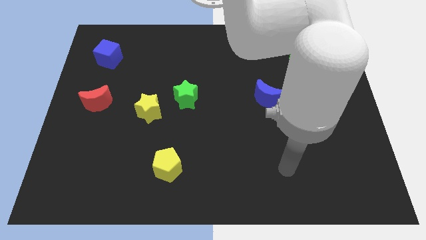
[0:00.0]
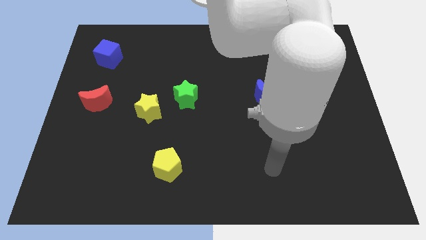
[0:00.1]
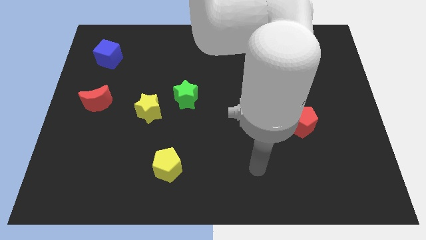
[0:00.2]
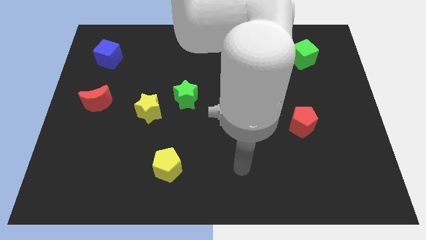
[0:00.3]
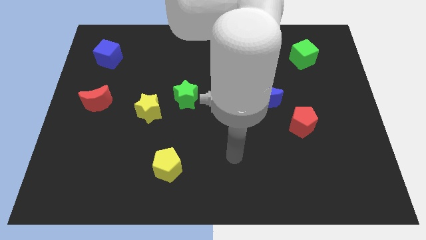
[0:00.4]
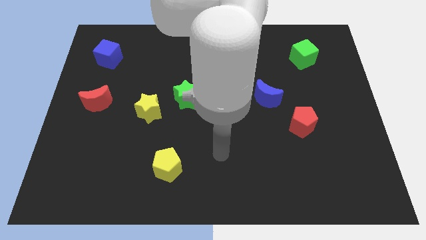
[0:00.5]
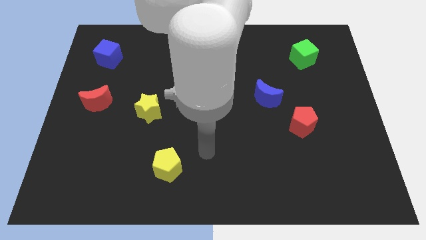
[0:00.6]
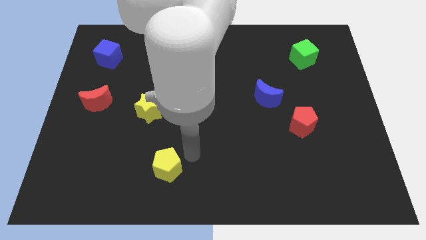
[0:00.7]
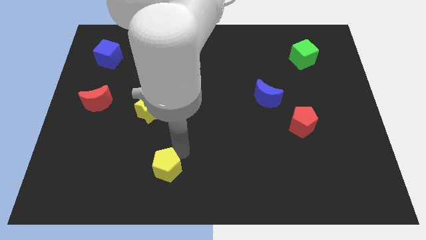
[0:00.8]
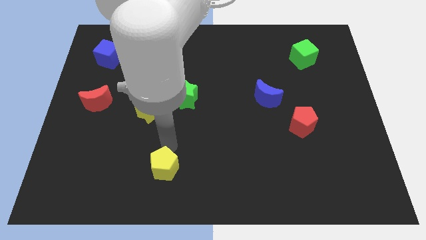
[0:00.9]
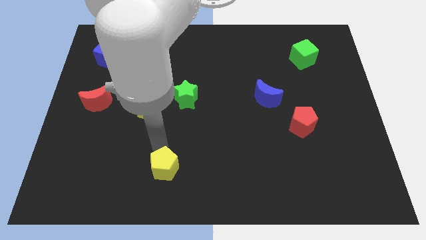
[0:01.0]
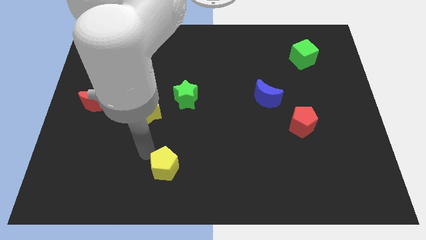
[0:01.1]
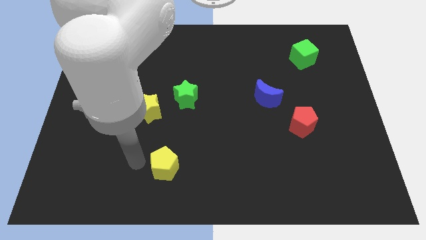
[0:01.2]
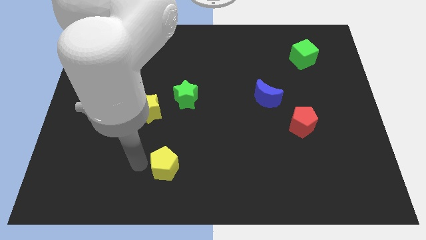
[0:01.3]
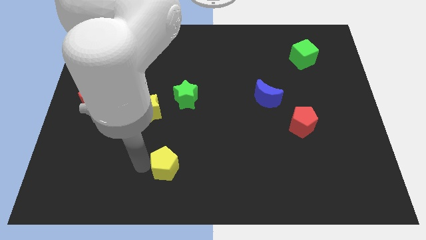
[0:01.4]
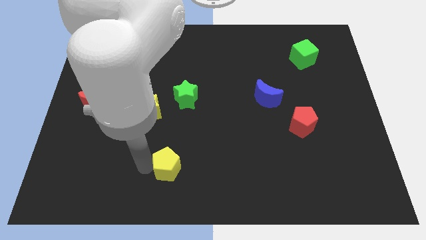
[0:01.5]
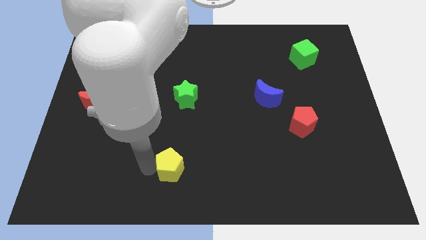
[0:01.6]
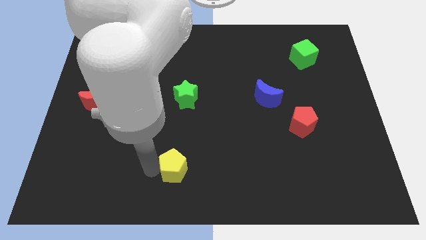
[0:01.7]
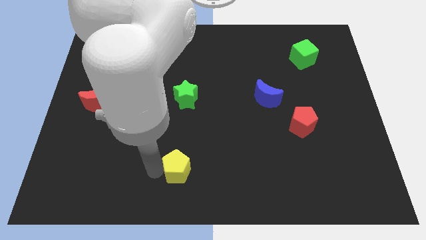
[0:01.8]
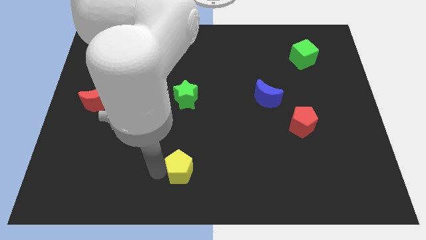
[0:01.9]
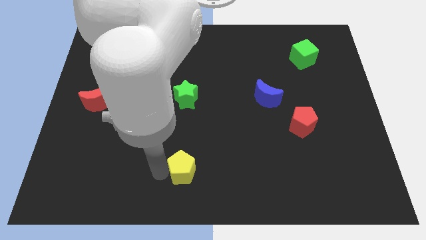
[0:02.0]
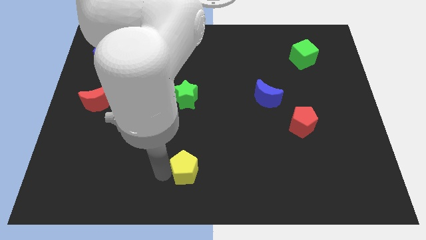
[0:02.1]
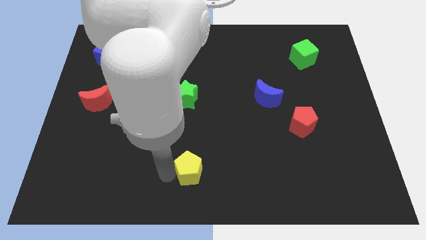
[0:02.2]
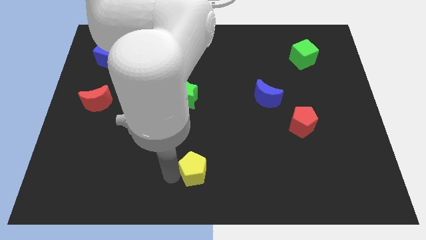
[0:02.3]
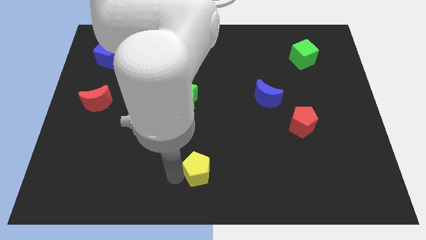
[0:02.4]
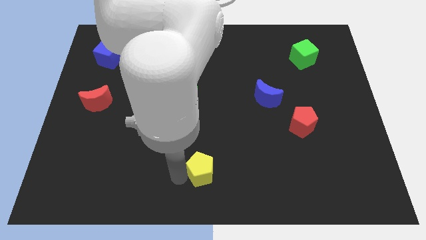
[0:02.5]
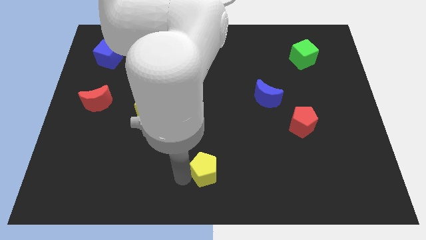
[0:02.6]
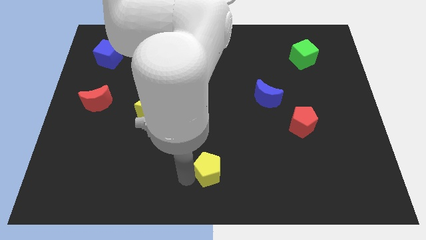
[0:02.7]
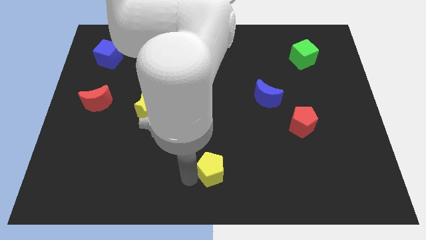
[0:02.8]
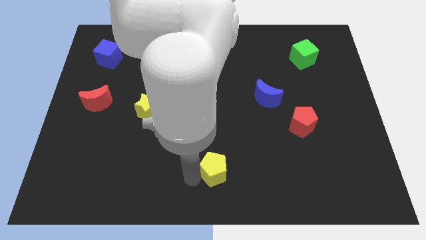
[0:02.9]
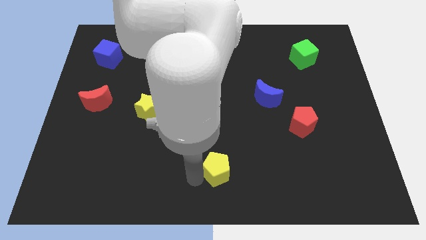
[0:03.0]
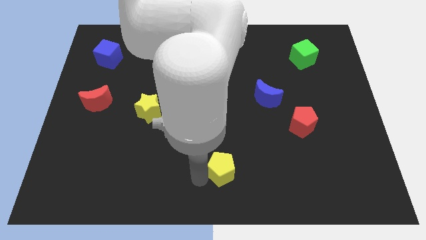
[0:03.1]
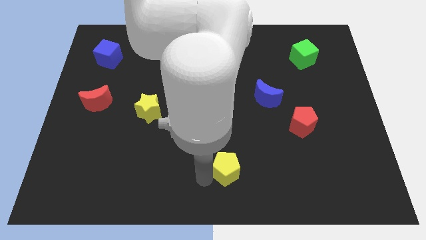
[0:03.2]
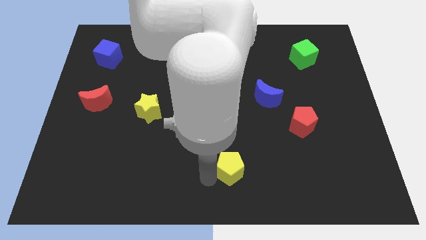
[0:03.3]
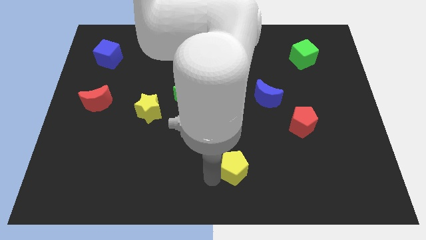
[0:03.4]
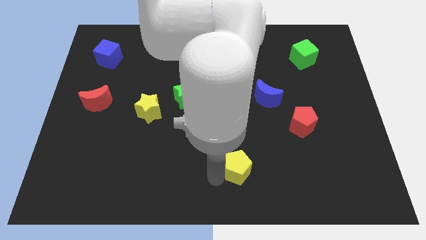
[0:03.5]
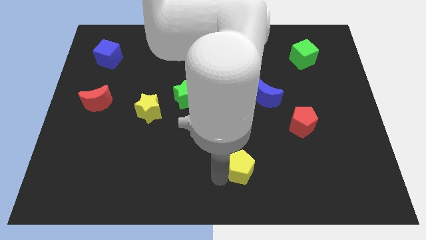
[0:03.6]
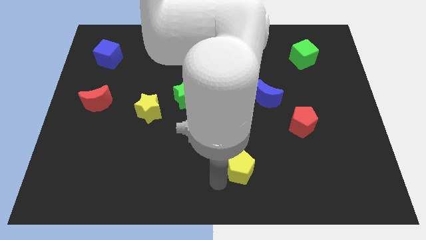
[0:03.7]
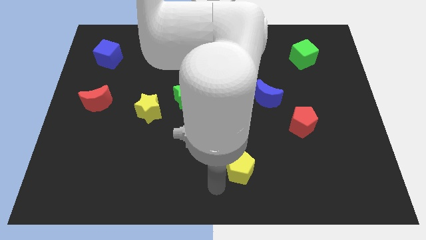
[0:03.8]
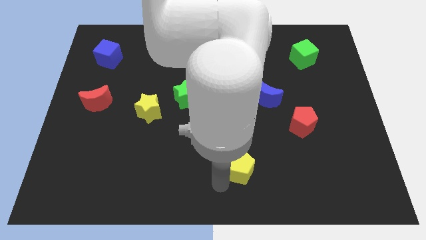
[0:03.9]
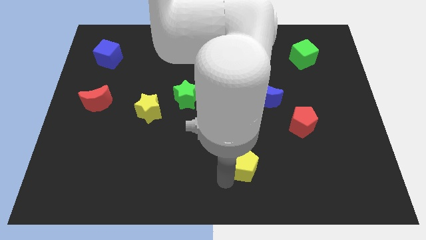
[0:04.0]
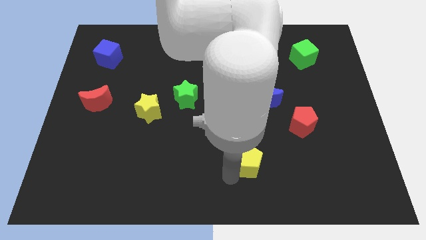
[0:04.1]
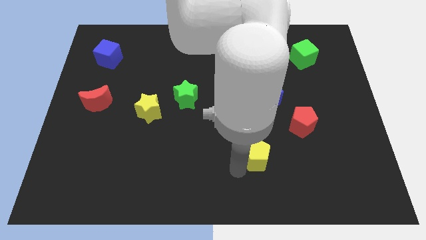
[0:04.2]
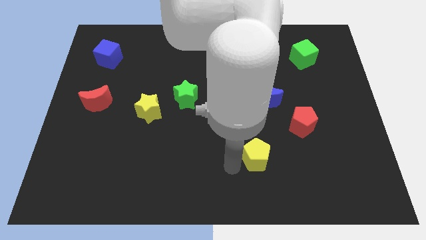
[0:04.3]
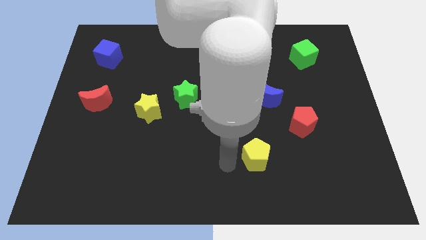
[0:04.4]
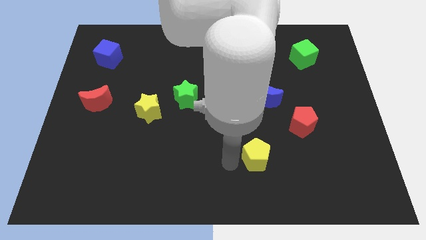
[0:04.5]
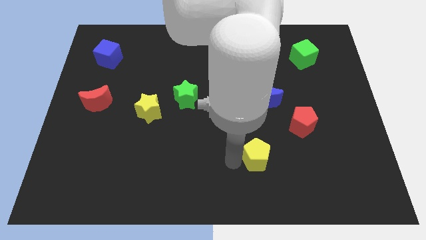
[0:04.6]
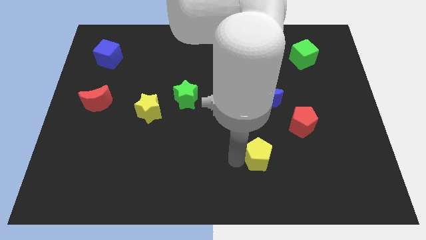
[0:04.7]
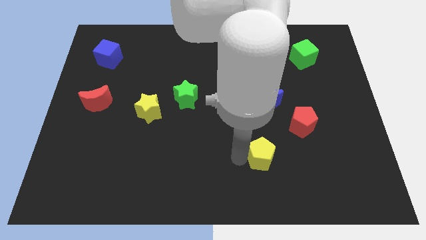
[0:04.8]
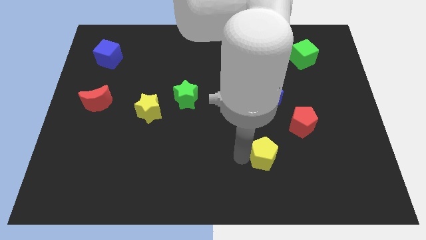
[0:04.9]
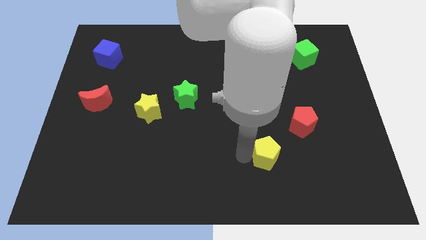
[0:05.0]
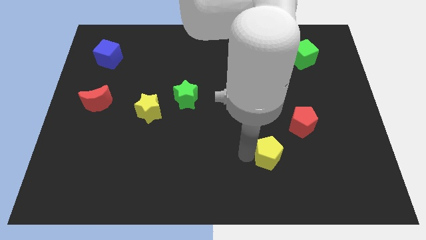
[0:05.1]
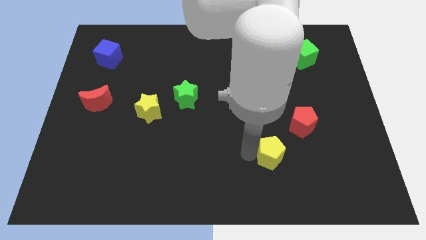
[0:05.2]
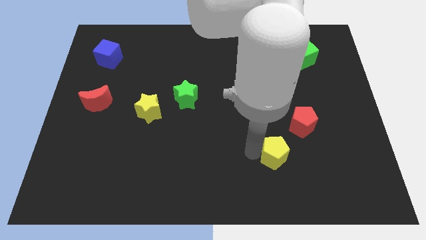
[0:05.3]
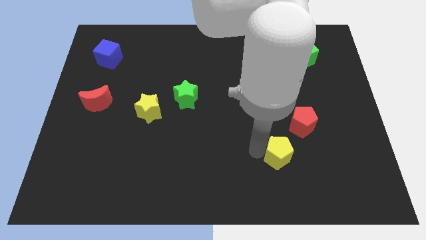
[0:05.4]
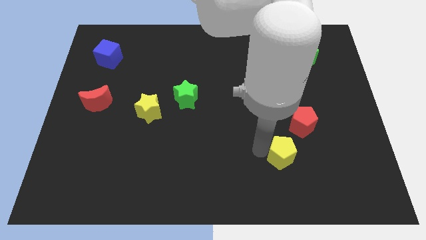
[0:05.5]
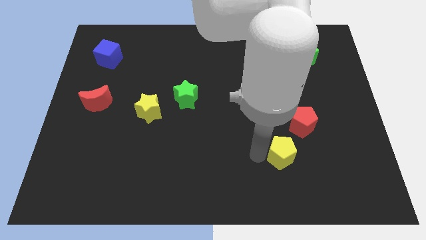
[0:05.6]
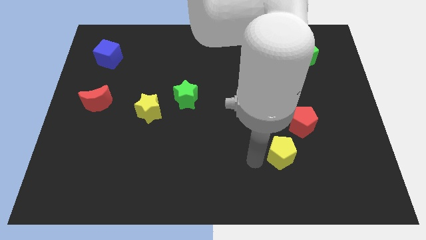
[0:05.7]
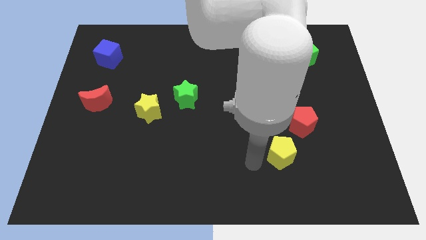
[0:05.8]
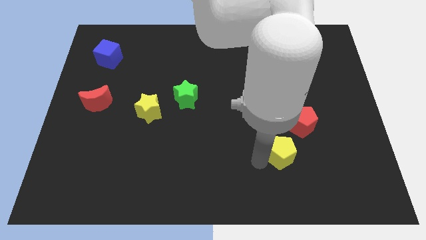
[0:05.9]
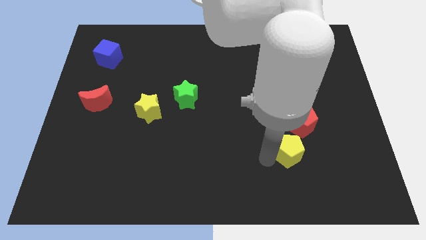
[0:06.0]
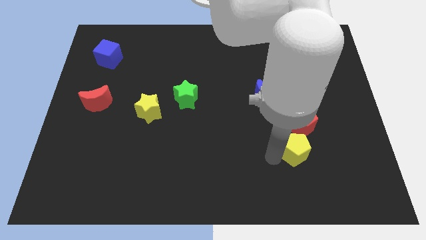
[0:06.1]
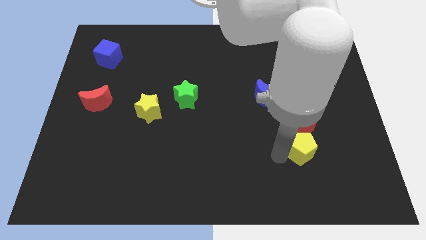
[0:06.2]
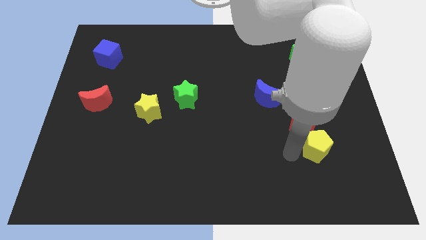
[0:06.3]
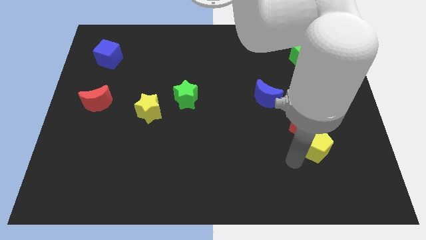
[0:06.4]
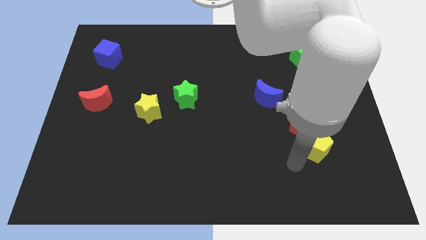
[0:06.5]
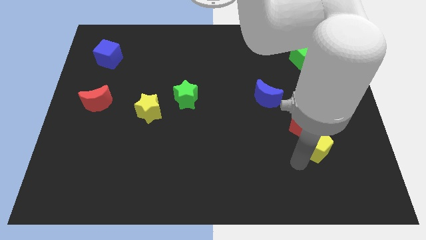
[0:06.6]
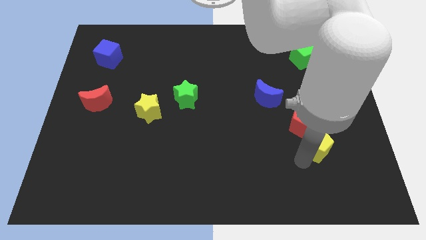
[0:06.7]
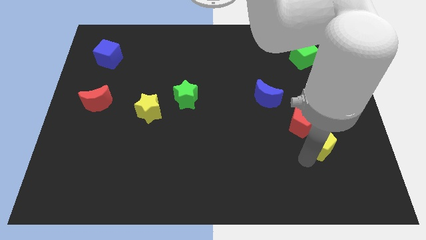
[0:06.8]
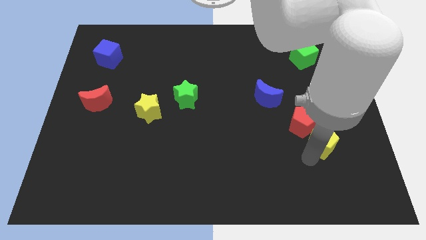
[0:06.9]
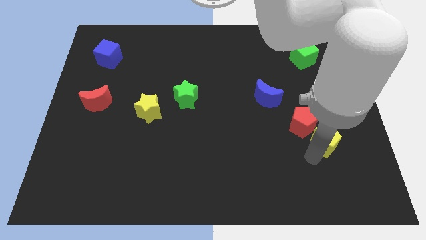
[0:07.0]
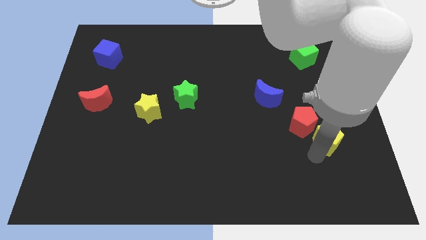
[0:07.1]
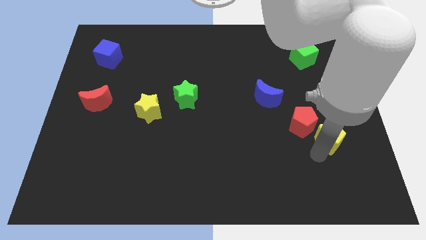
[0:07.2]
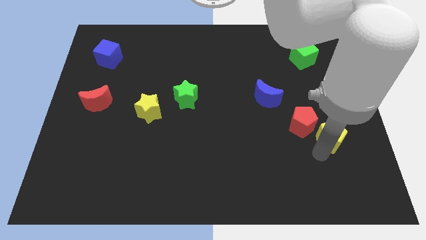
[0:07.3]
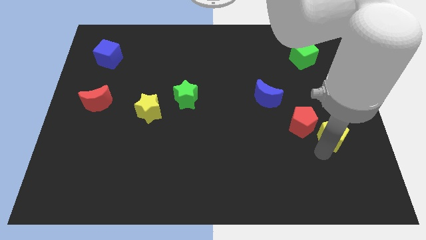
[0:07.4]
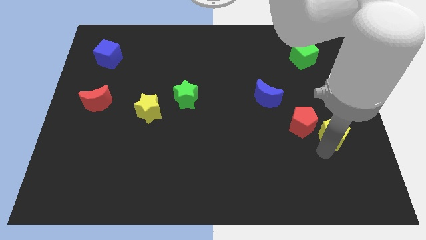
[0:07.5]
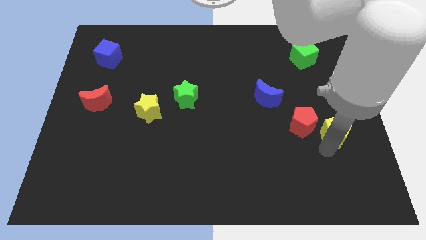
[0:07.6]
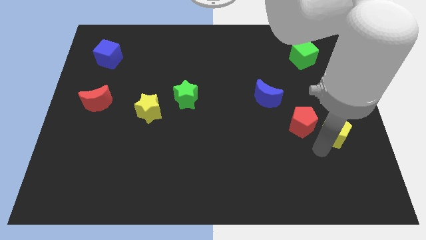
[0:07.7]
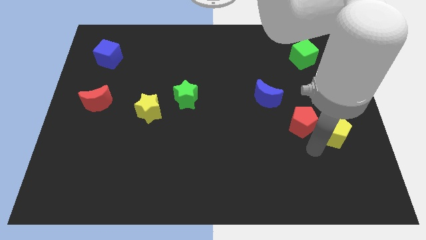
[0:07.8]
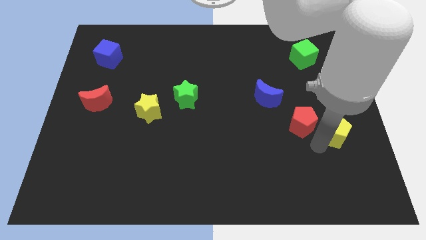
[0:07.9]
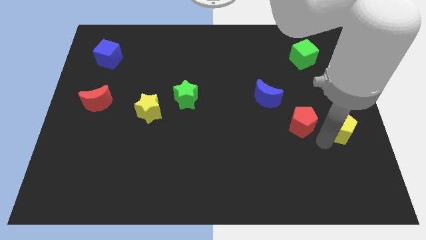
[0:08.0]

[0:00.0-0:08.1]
move the yellow pentagon to the right side
